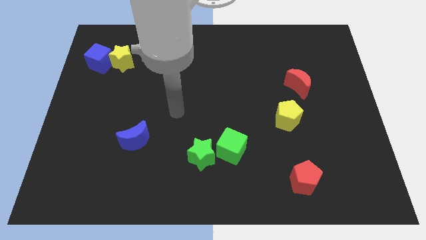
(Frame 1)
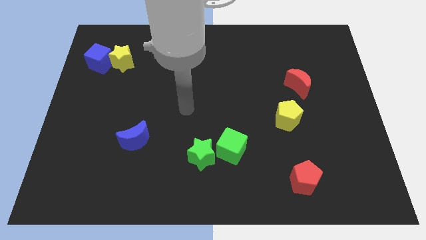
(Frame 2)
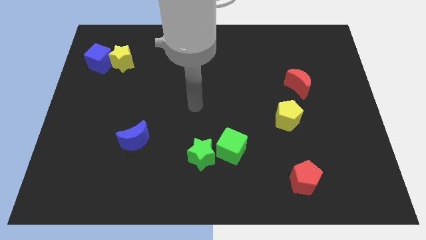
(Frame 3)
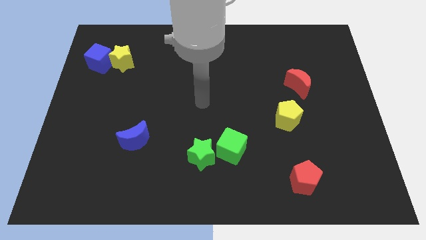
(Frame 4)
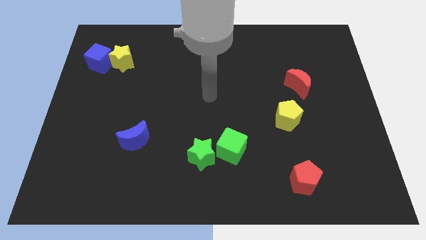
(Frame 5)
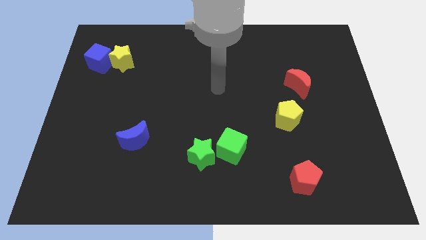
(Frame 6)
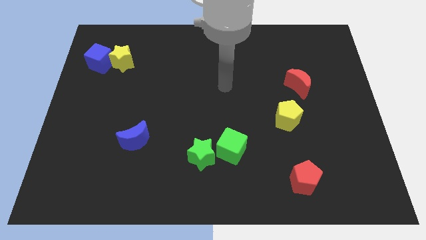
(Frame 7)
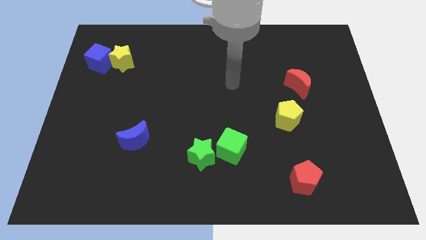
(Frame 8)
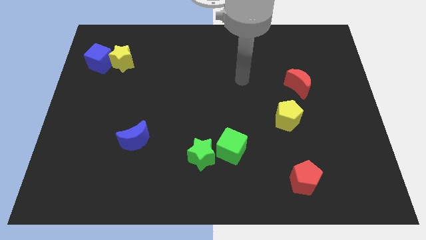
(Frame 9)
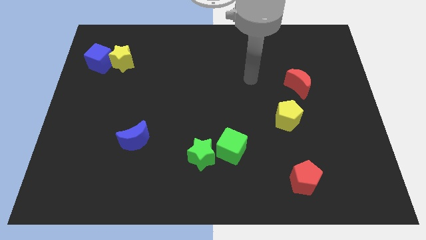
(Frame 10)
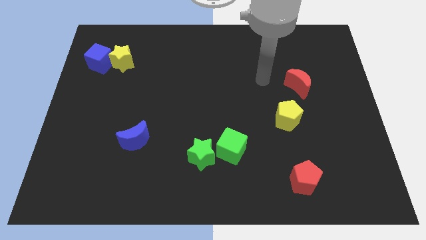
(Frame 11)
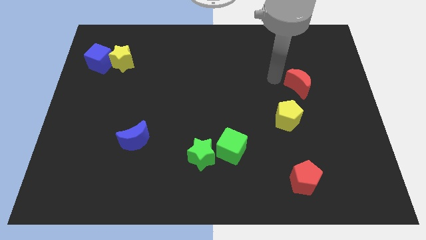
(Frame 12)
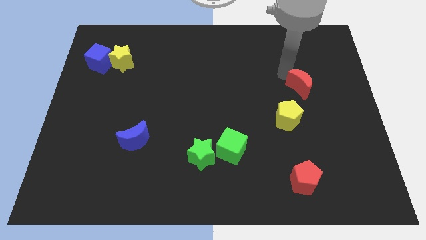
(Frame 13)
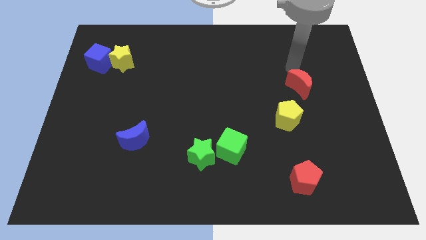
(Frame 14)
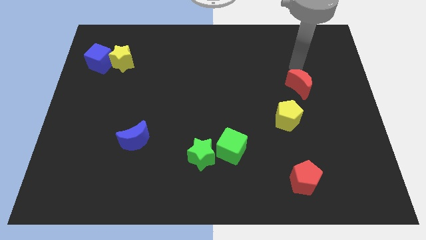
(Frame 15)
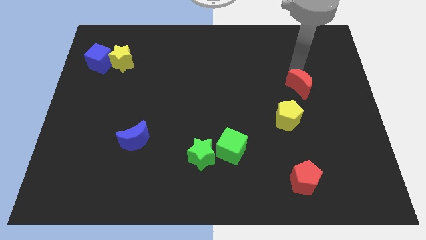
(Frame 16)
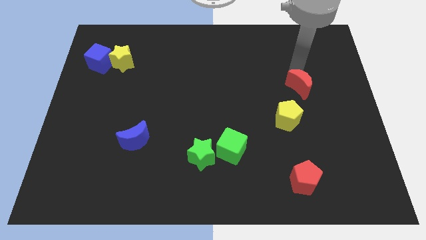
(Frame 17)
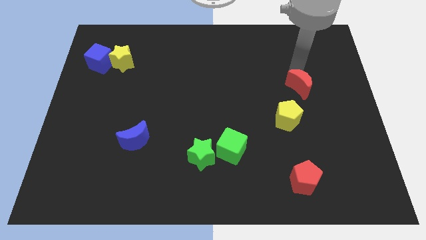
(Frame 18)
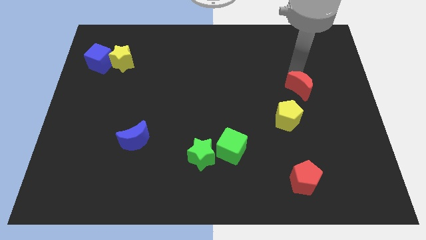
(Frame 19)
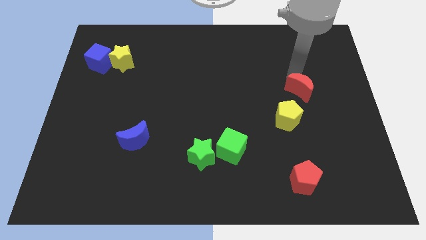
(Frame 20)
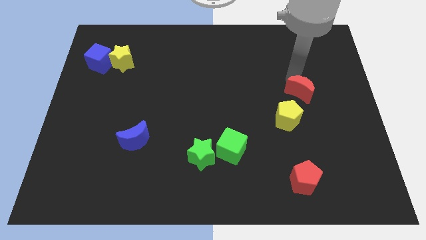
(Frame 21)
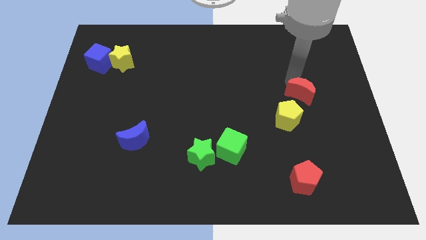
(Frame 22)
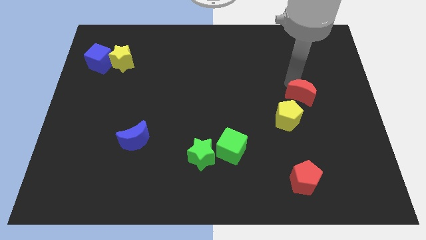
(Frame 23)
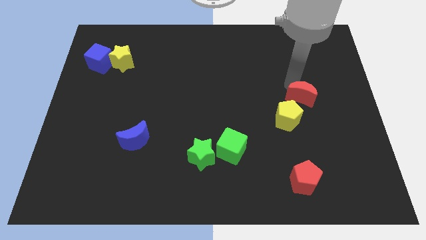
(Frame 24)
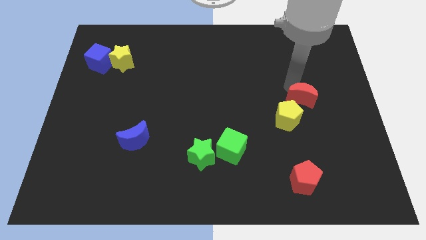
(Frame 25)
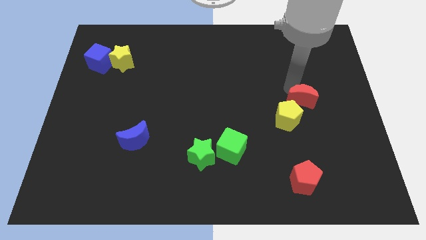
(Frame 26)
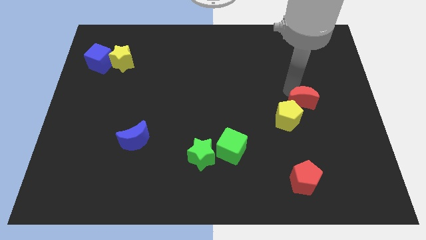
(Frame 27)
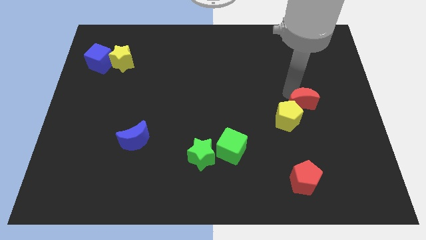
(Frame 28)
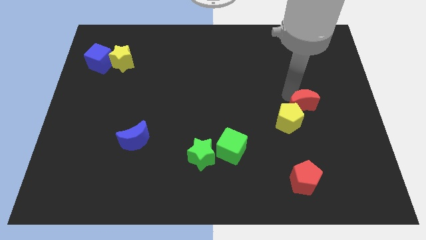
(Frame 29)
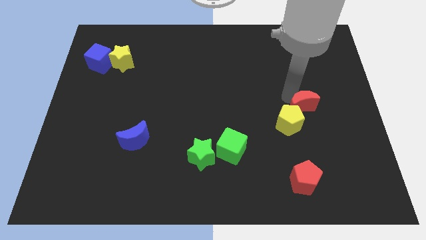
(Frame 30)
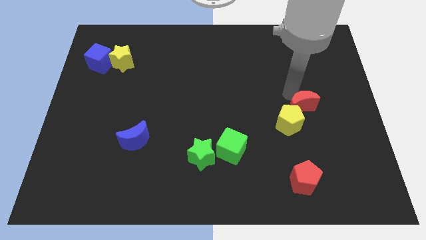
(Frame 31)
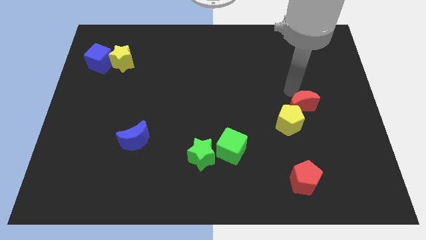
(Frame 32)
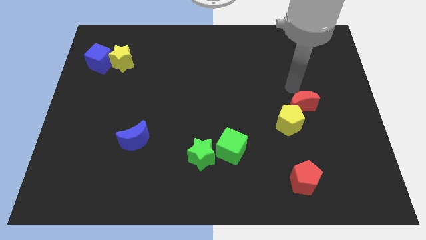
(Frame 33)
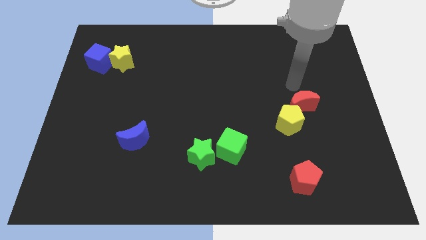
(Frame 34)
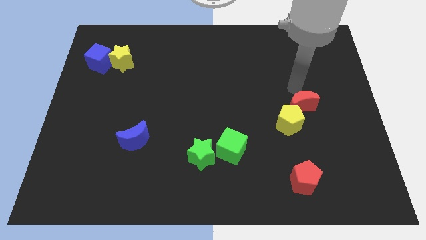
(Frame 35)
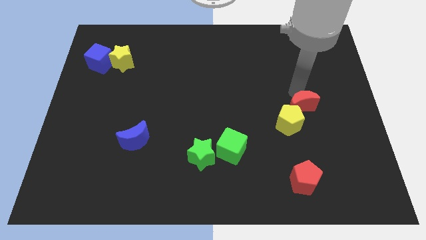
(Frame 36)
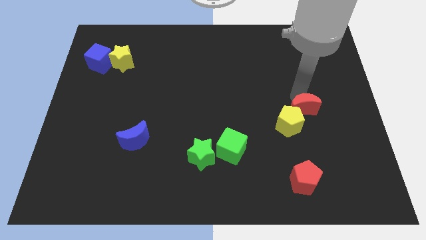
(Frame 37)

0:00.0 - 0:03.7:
slightly move the red moon down

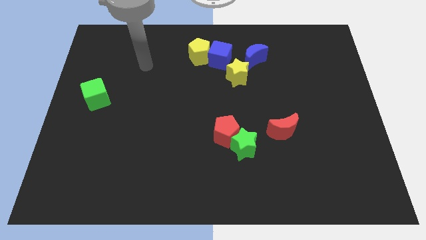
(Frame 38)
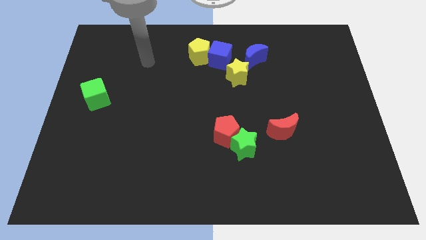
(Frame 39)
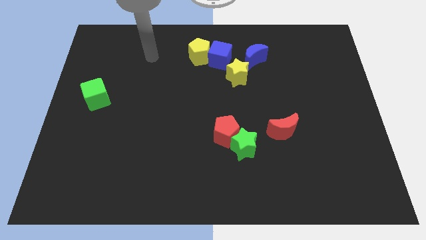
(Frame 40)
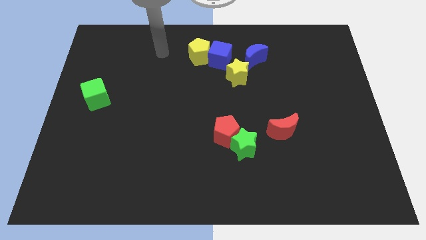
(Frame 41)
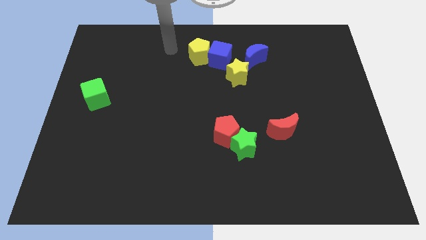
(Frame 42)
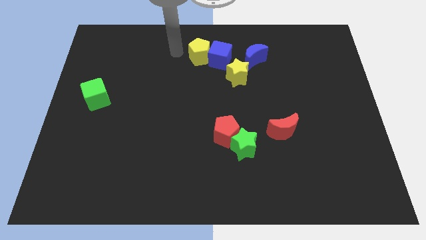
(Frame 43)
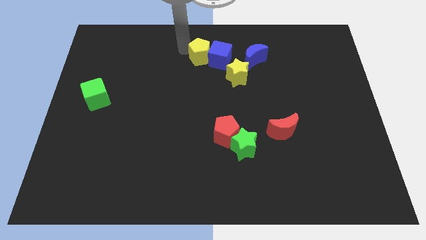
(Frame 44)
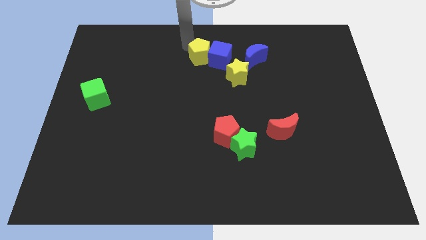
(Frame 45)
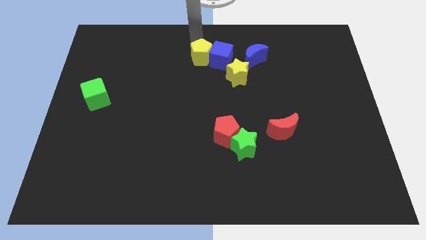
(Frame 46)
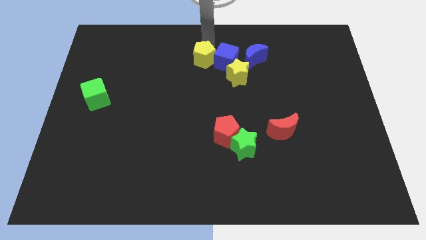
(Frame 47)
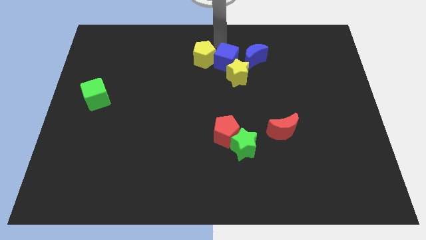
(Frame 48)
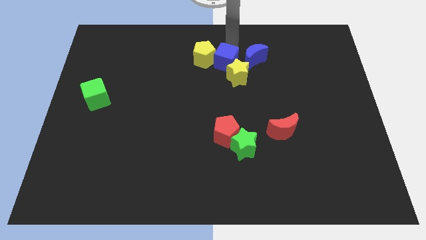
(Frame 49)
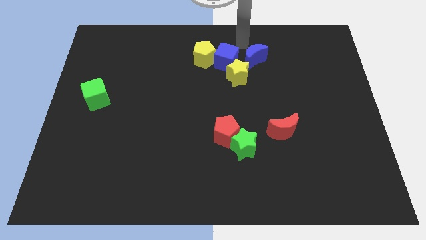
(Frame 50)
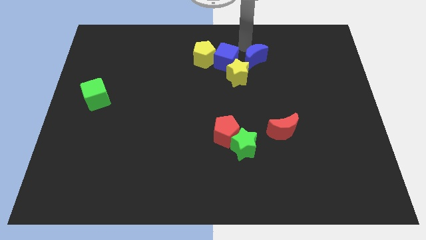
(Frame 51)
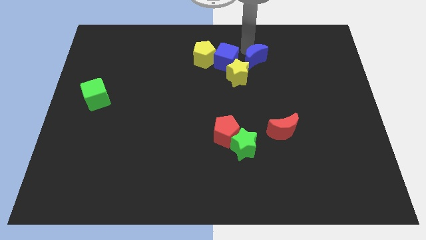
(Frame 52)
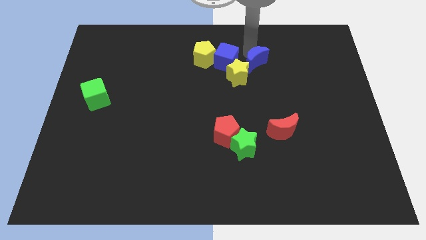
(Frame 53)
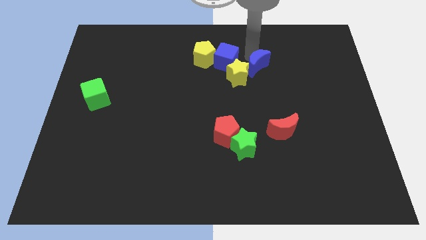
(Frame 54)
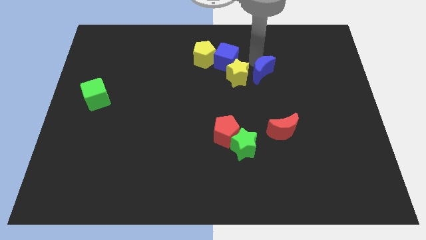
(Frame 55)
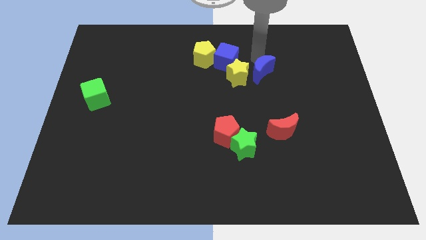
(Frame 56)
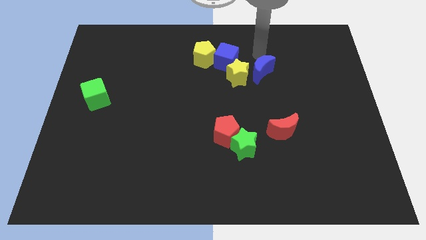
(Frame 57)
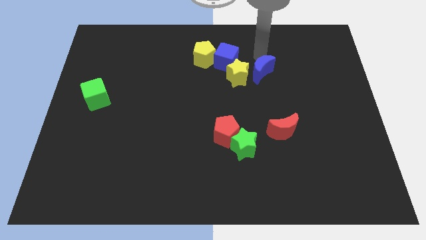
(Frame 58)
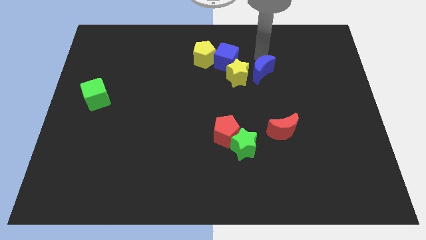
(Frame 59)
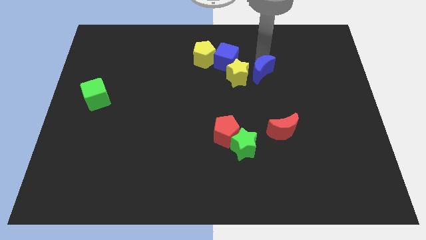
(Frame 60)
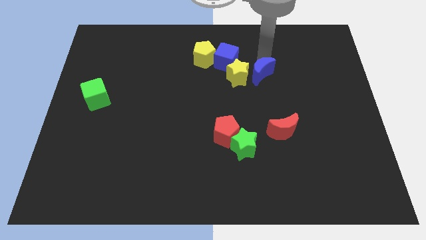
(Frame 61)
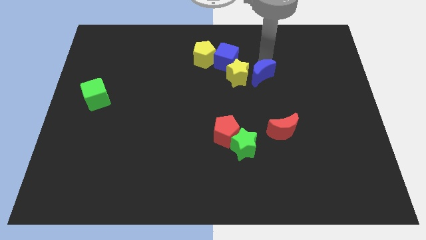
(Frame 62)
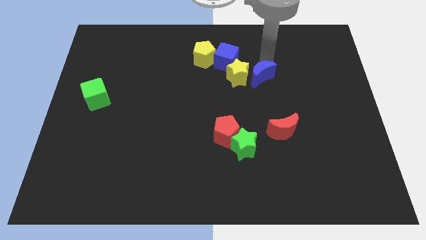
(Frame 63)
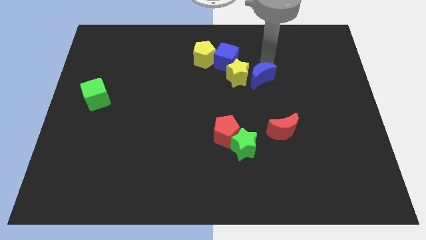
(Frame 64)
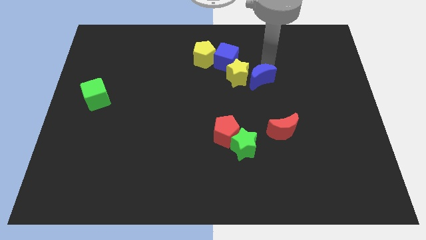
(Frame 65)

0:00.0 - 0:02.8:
slightly move the blue moon downwards

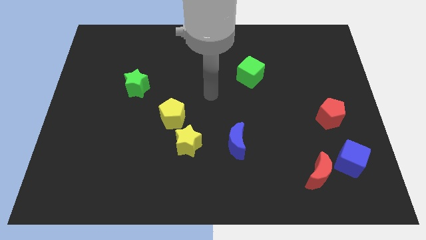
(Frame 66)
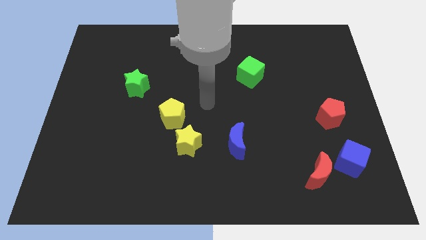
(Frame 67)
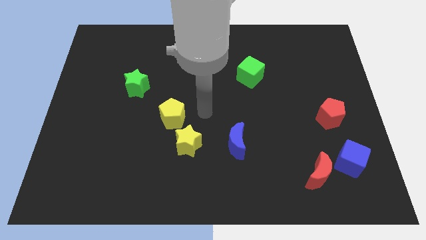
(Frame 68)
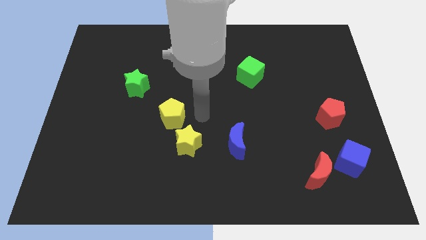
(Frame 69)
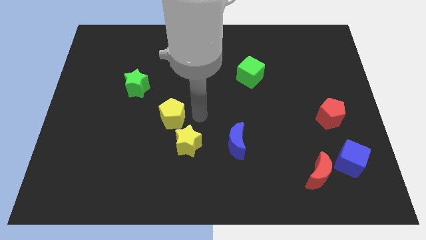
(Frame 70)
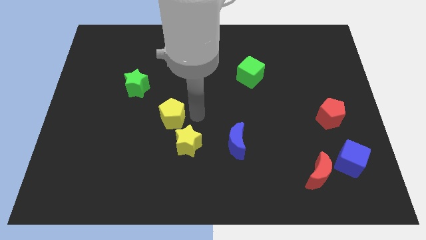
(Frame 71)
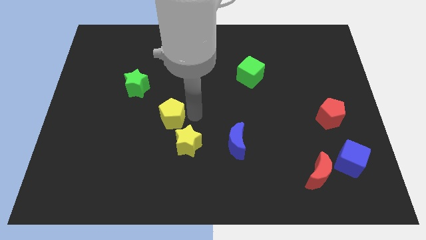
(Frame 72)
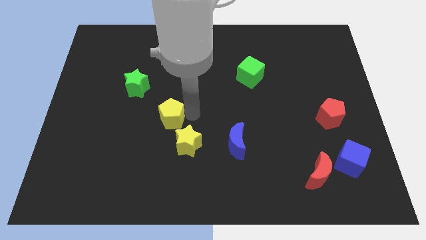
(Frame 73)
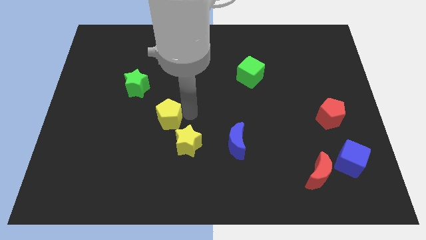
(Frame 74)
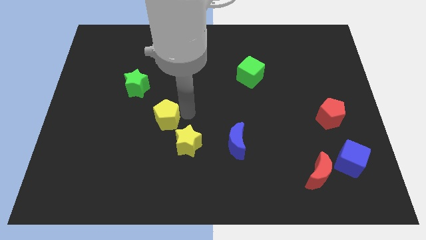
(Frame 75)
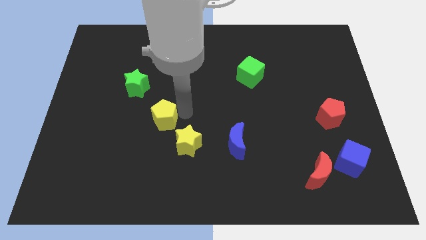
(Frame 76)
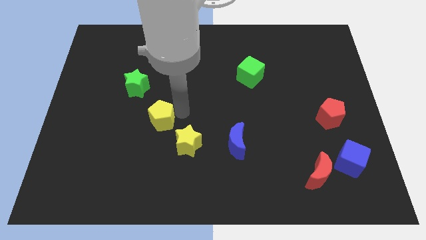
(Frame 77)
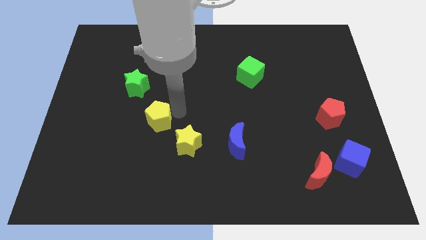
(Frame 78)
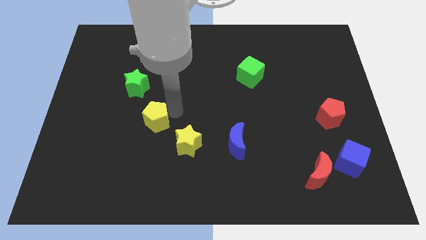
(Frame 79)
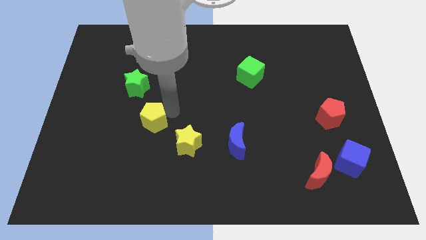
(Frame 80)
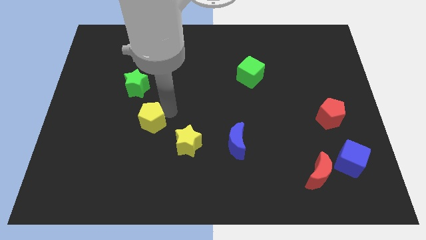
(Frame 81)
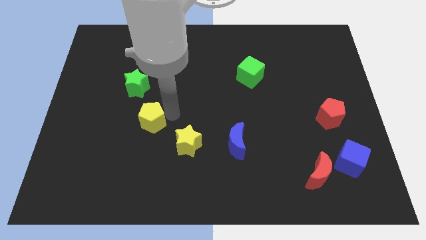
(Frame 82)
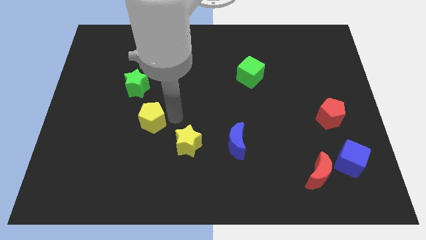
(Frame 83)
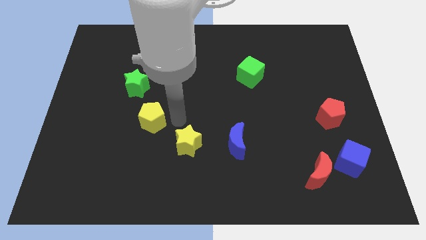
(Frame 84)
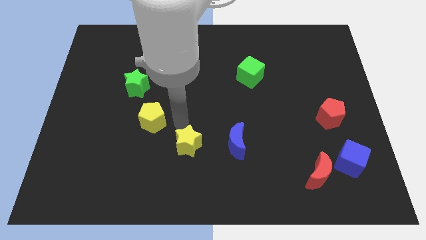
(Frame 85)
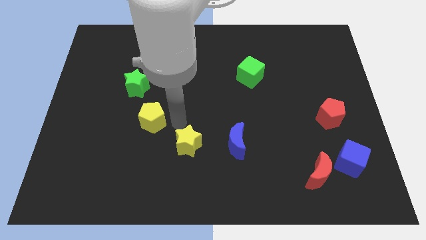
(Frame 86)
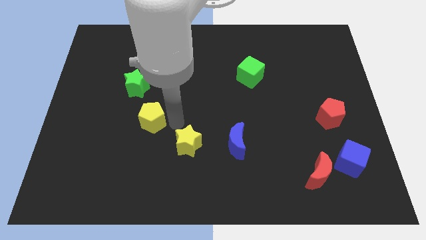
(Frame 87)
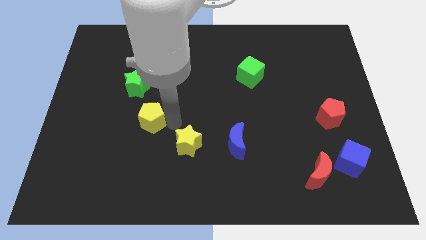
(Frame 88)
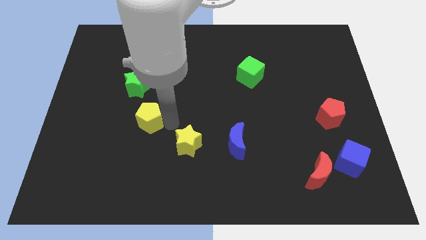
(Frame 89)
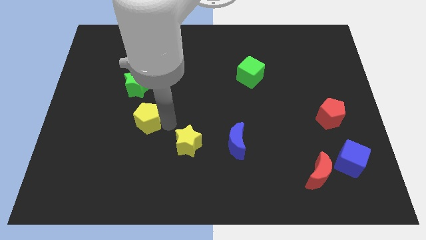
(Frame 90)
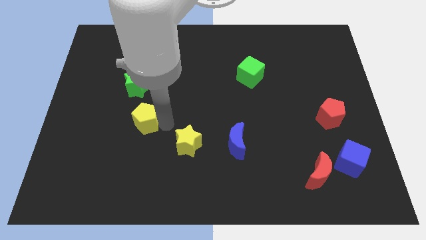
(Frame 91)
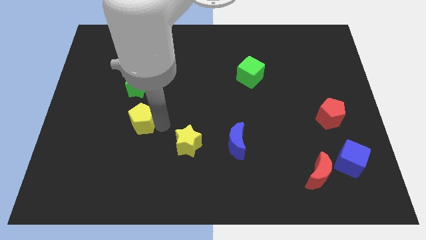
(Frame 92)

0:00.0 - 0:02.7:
slide the yellow pentagon somewhat left
